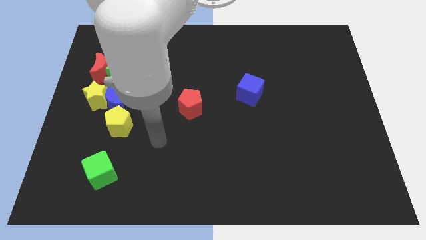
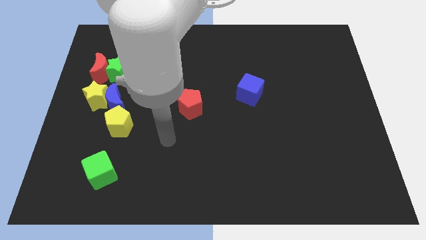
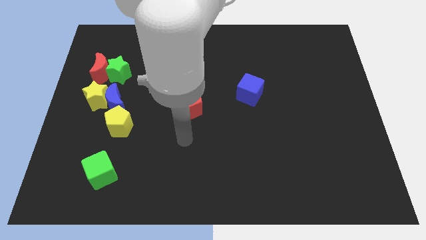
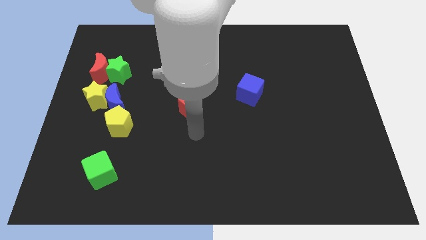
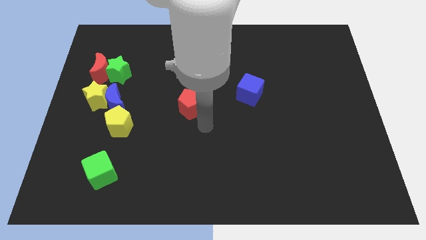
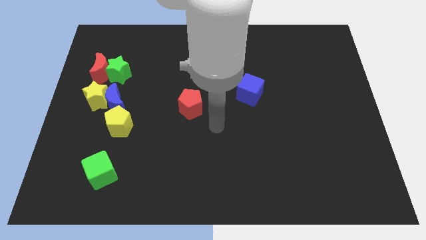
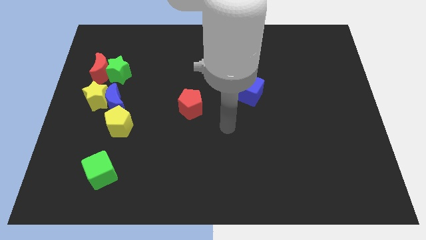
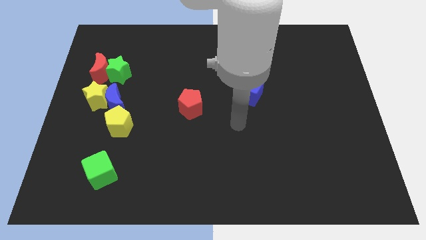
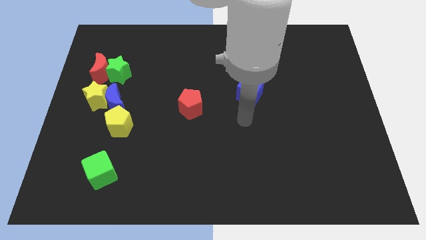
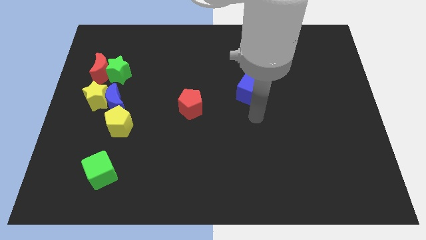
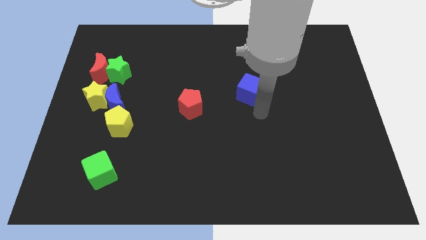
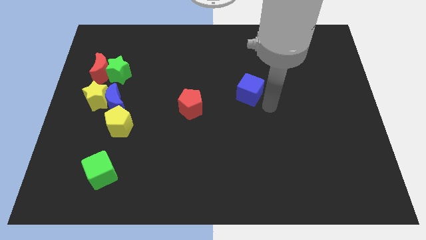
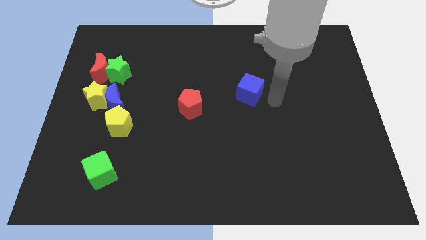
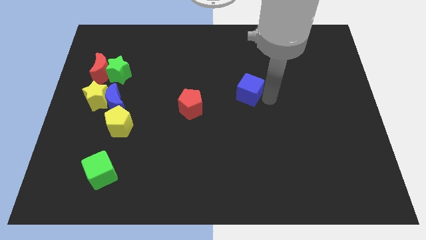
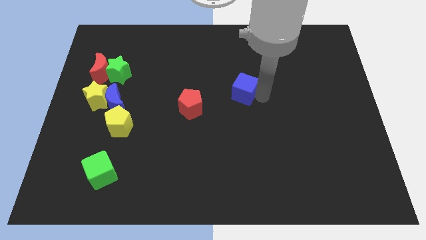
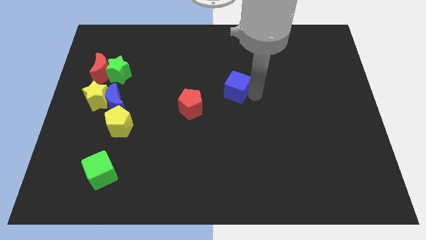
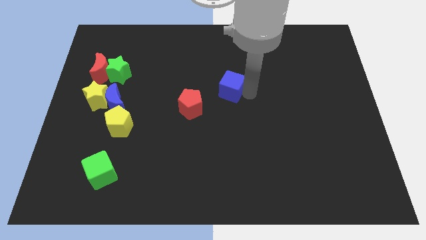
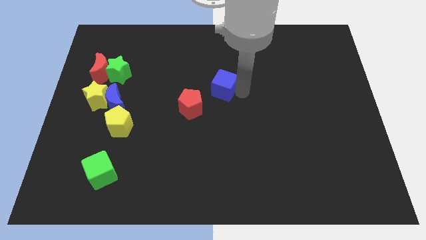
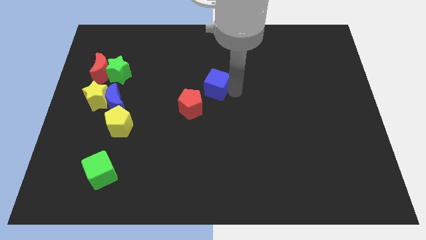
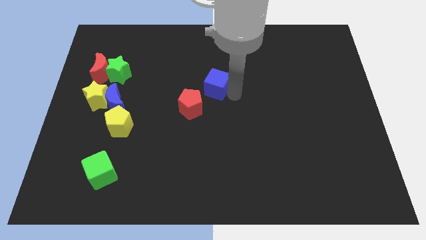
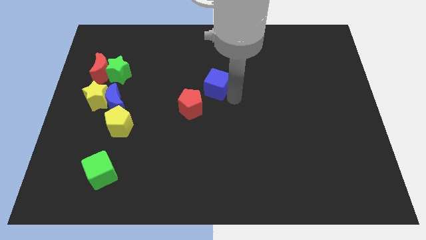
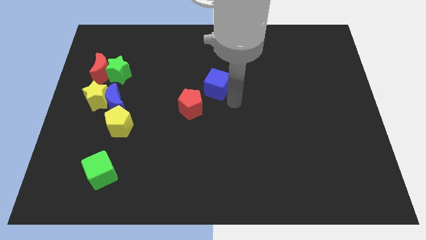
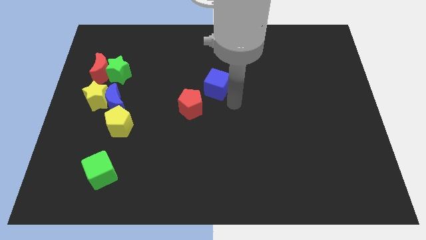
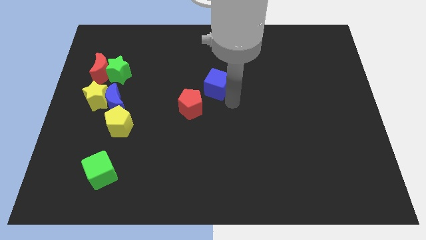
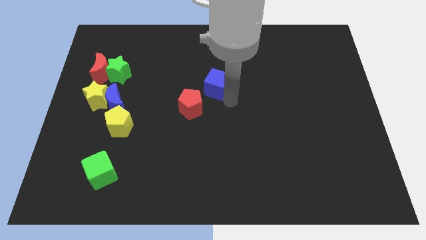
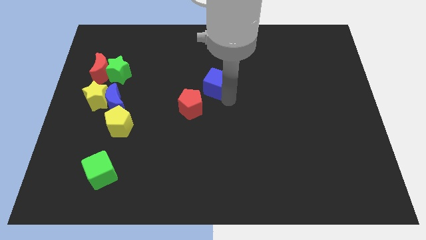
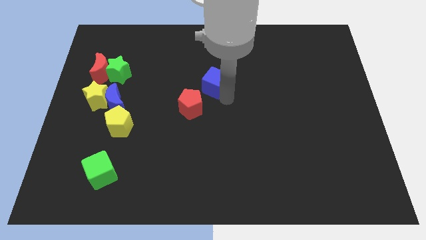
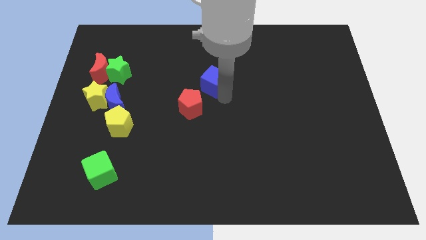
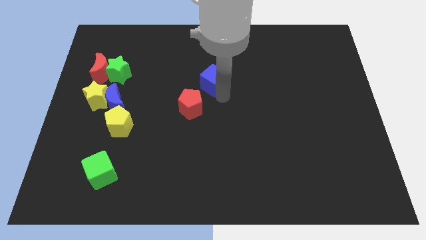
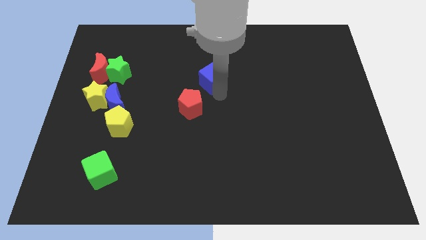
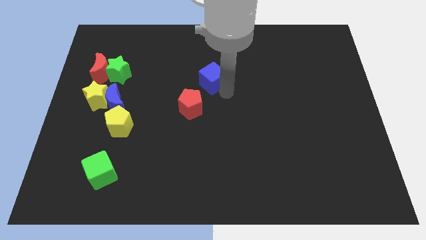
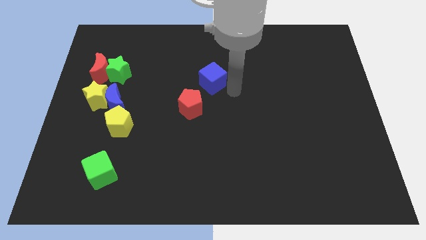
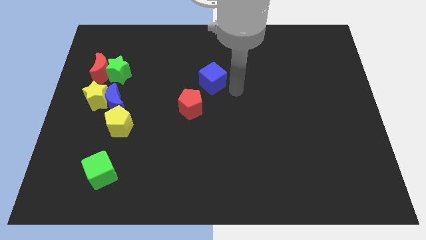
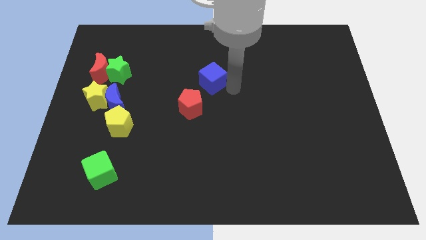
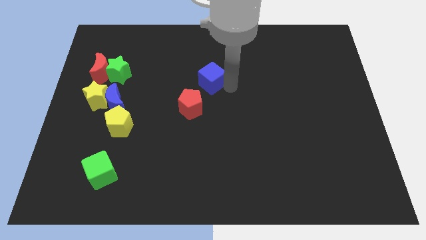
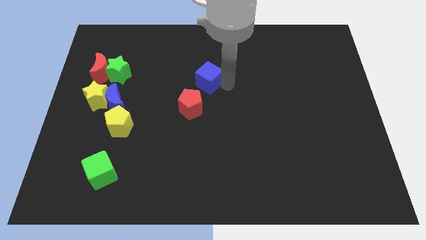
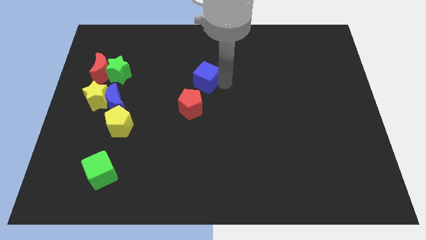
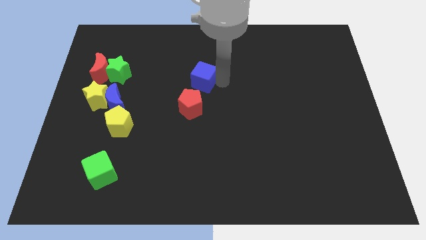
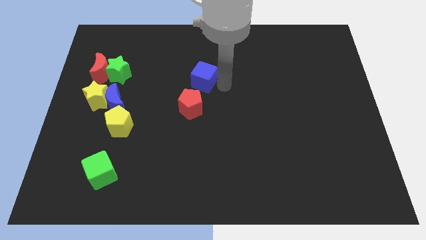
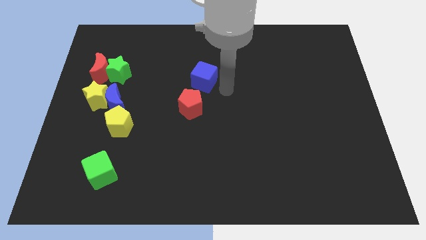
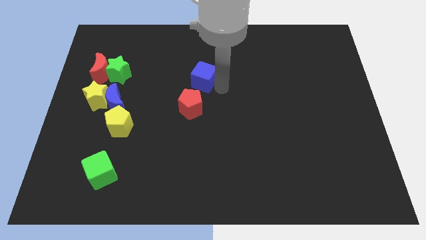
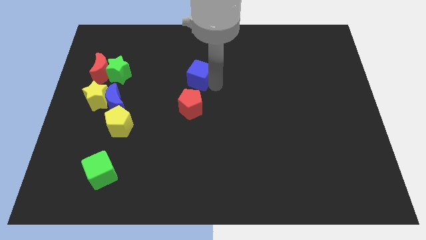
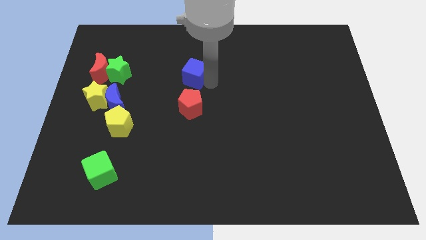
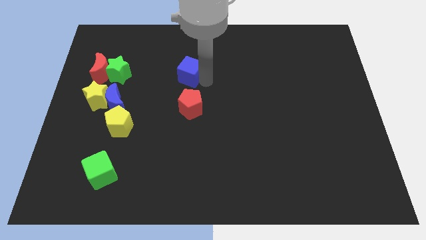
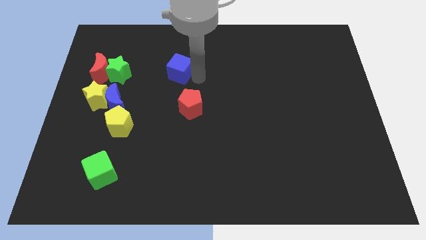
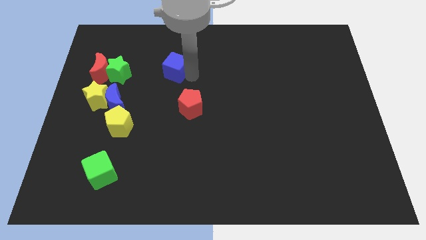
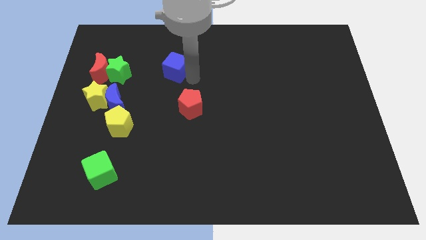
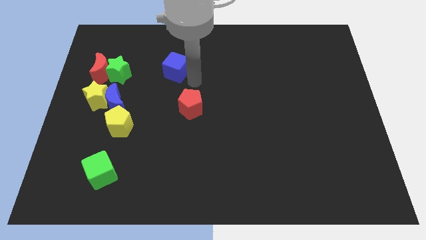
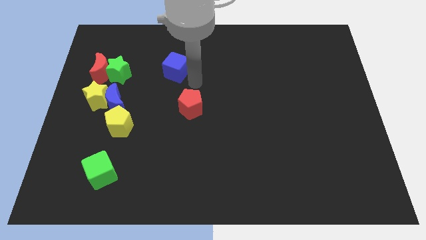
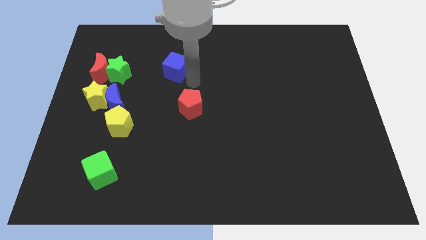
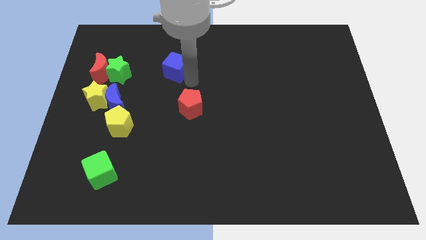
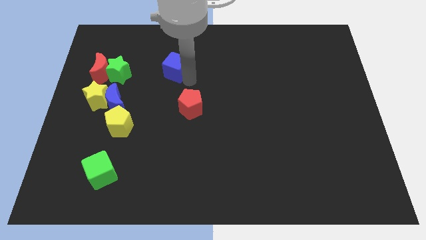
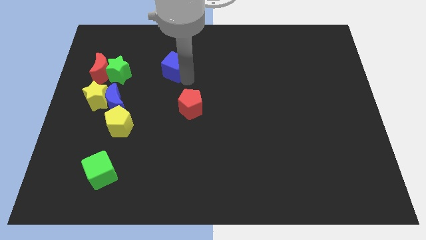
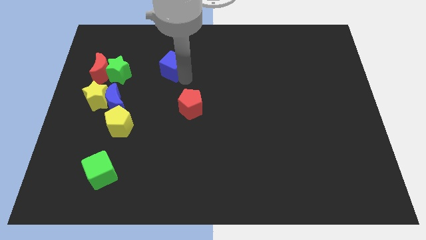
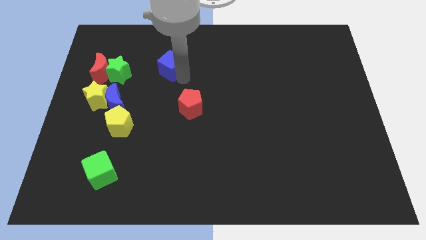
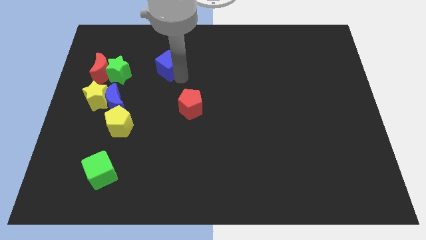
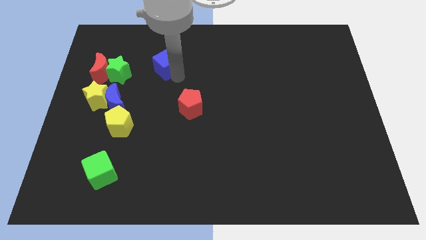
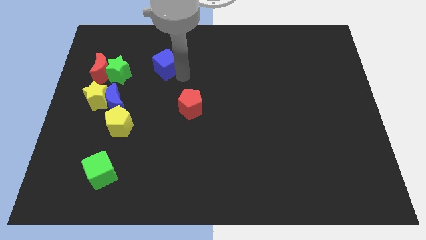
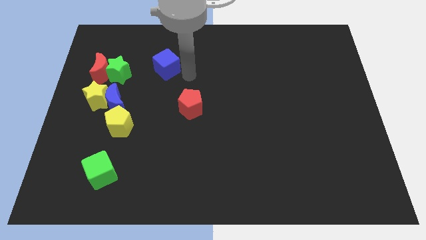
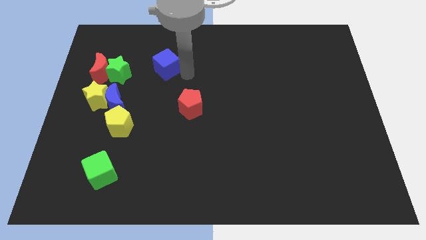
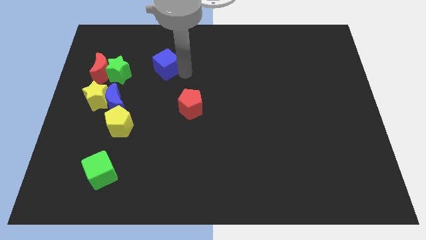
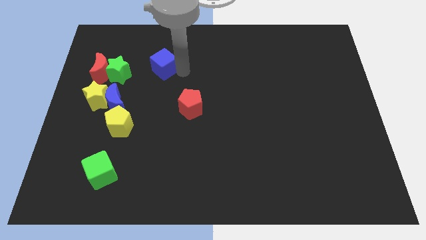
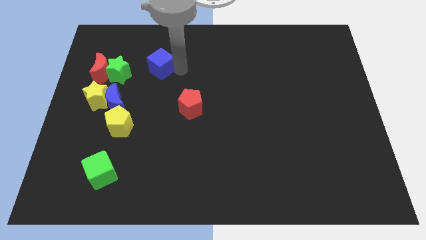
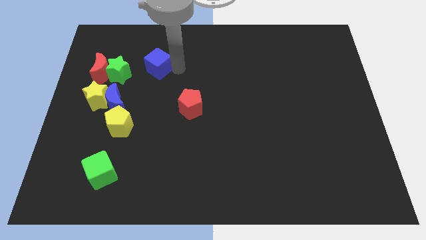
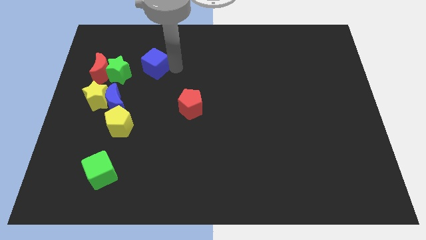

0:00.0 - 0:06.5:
move the blue cube to the top right of the green star

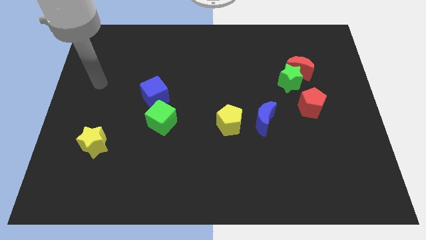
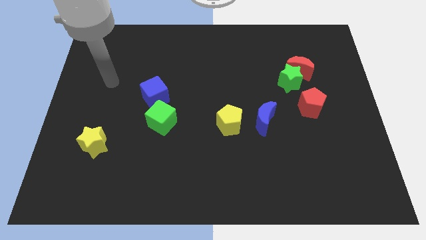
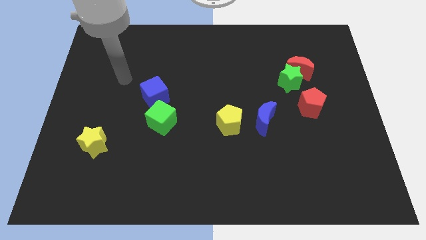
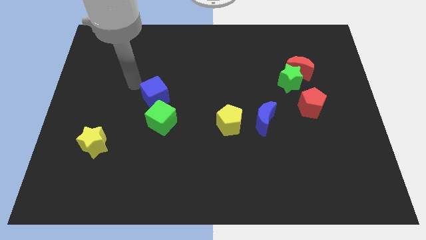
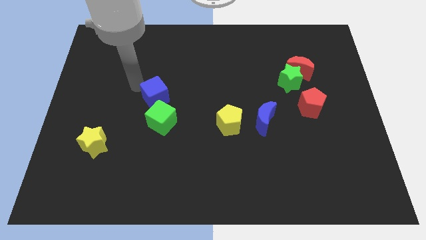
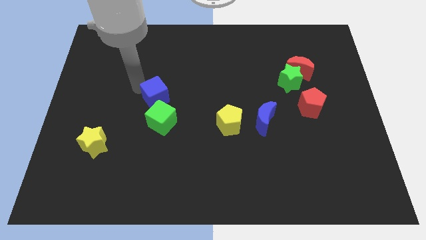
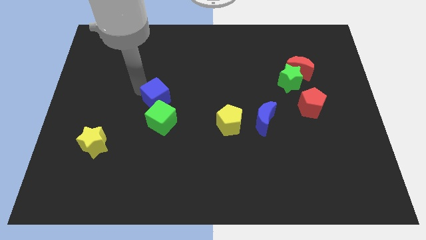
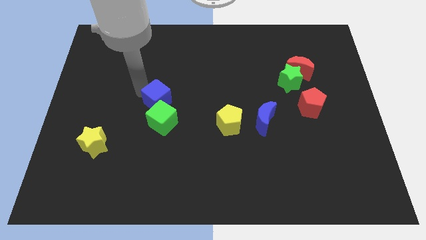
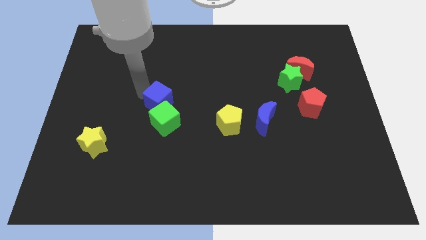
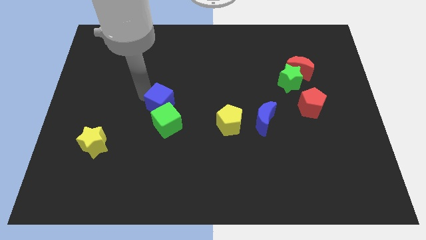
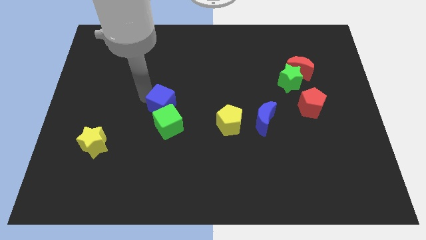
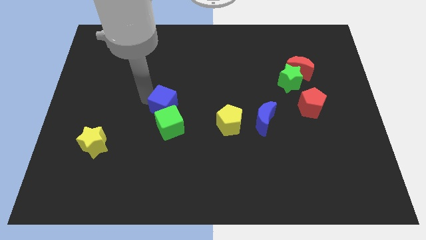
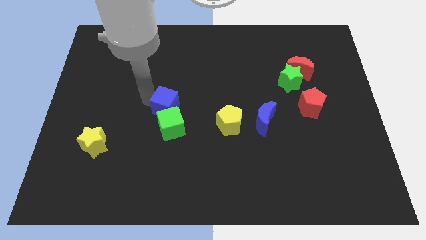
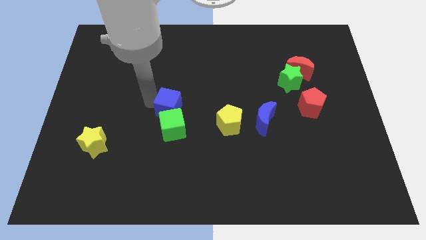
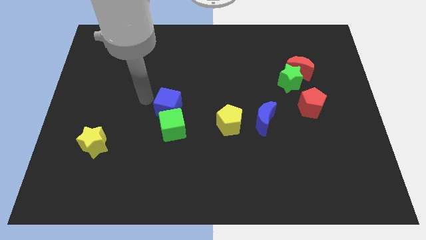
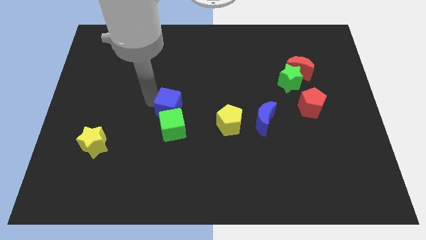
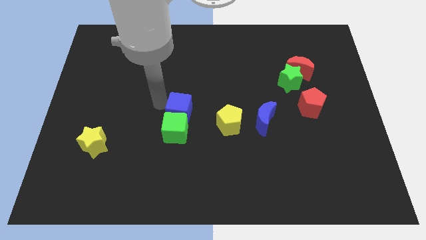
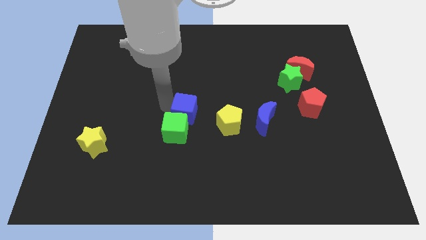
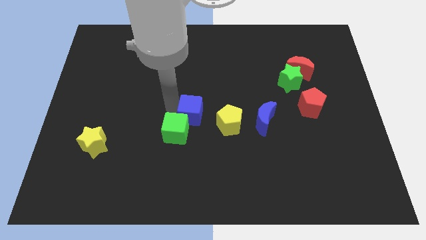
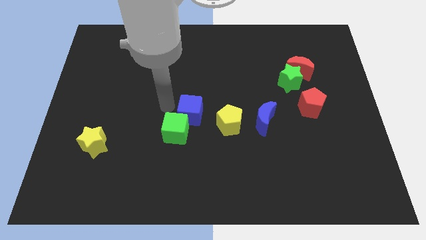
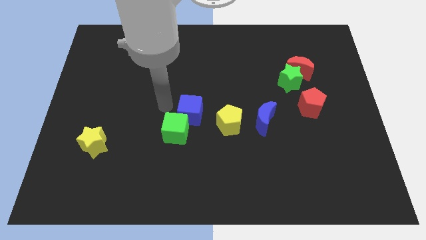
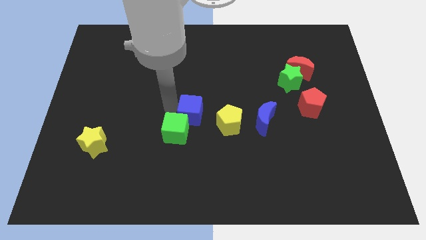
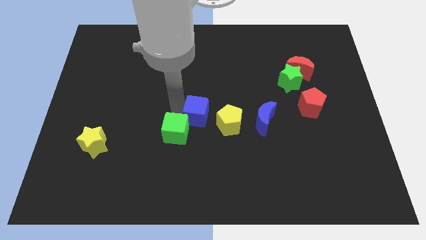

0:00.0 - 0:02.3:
move the blue cube left of the blue moon
